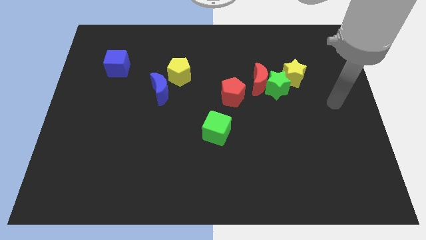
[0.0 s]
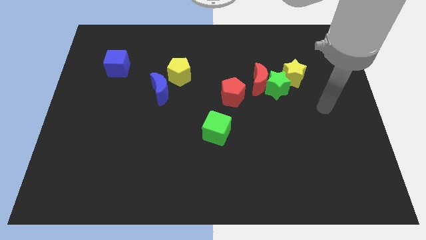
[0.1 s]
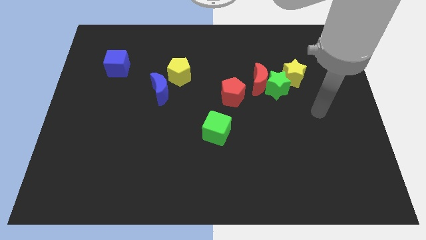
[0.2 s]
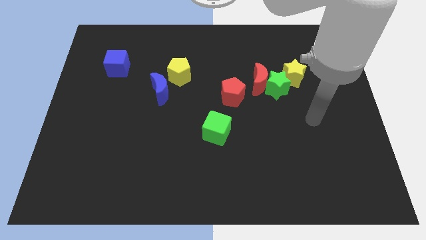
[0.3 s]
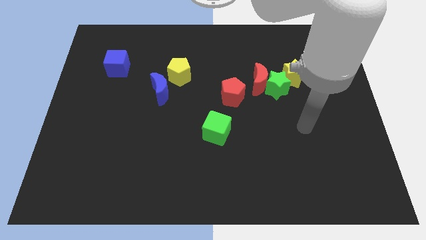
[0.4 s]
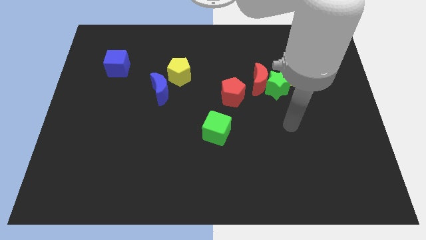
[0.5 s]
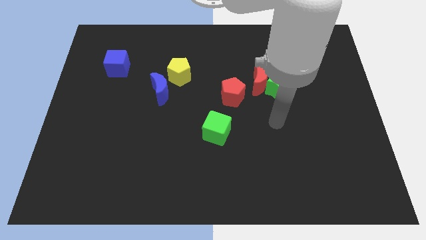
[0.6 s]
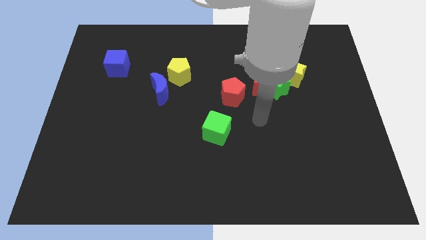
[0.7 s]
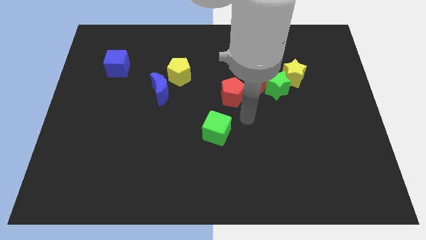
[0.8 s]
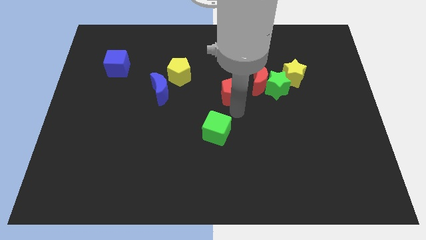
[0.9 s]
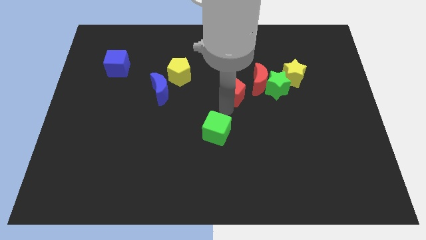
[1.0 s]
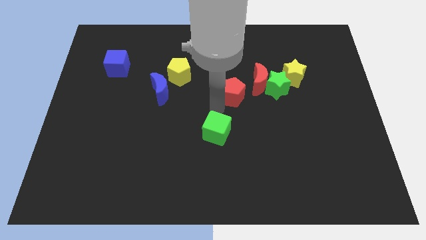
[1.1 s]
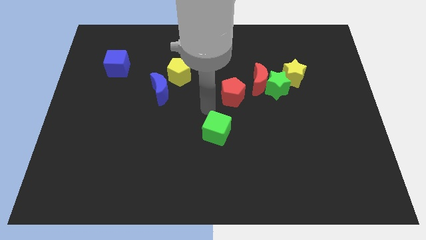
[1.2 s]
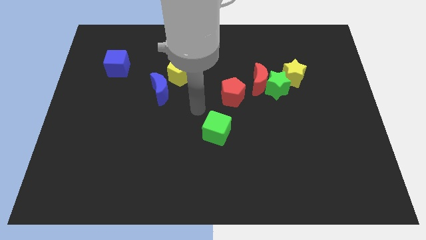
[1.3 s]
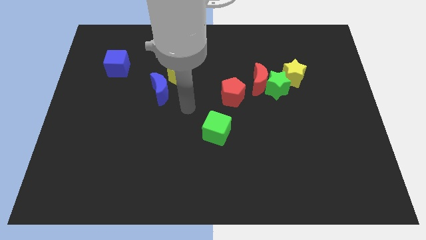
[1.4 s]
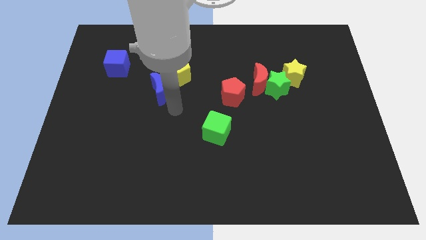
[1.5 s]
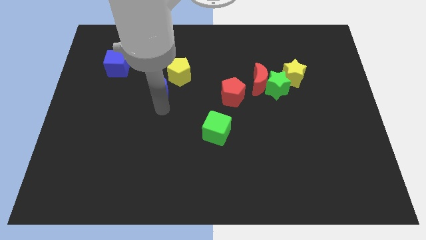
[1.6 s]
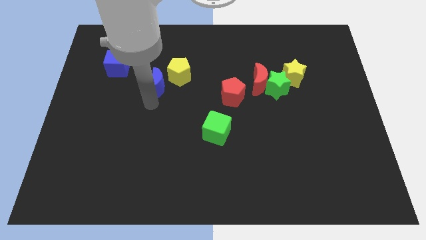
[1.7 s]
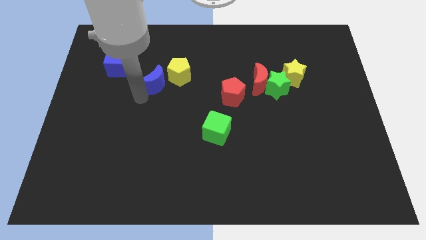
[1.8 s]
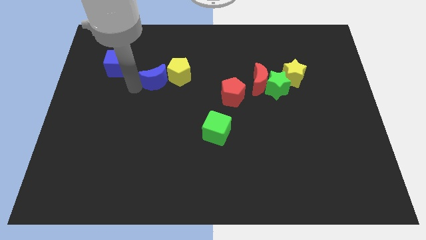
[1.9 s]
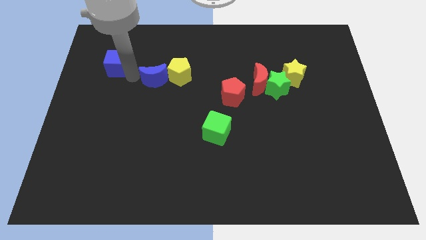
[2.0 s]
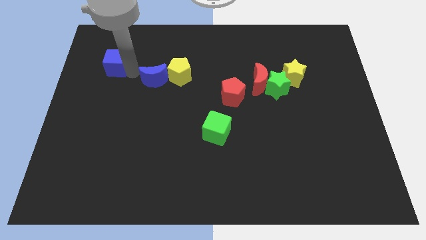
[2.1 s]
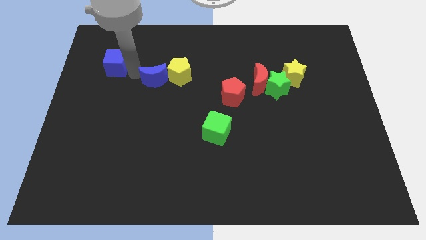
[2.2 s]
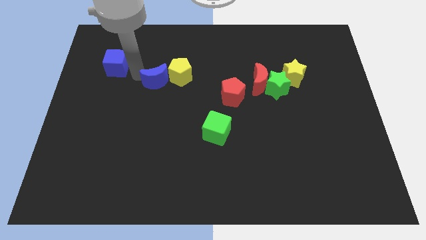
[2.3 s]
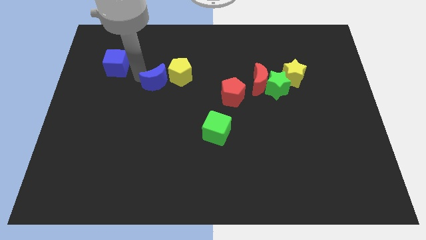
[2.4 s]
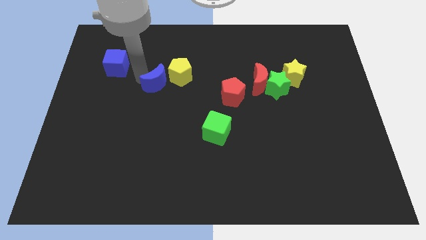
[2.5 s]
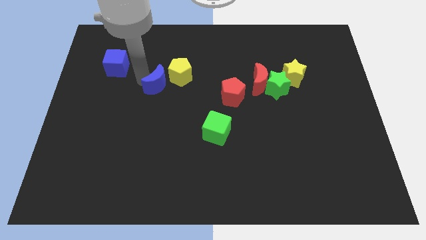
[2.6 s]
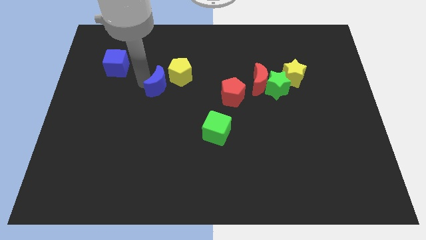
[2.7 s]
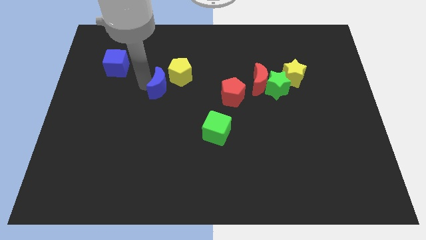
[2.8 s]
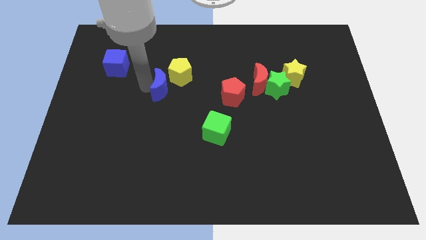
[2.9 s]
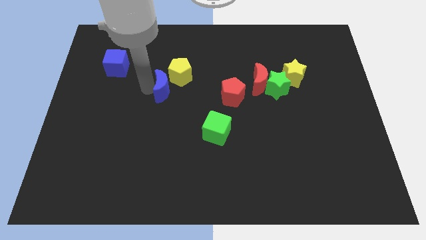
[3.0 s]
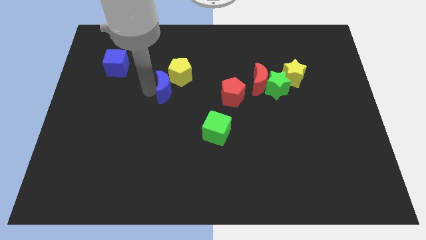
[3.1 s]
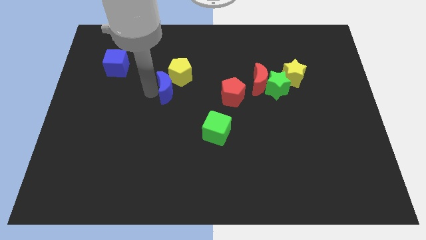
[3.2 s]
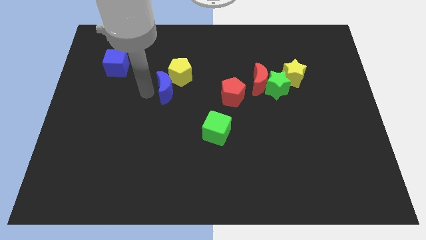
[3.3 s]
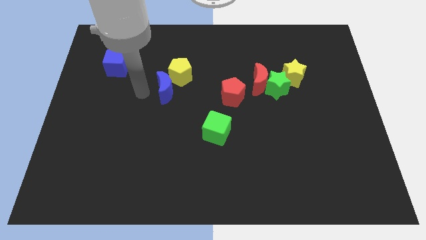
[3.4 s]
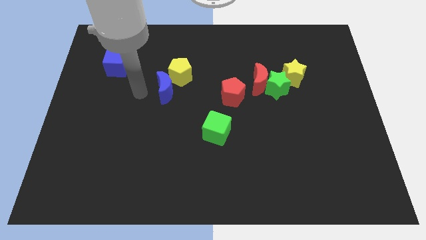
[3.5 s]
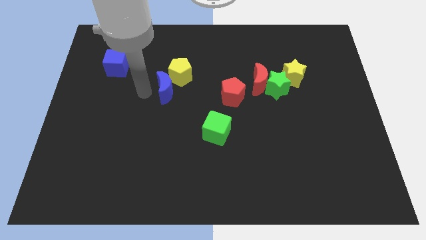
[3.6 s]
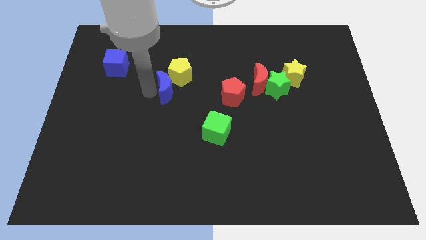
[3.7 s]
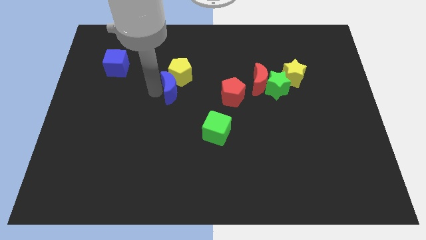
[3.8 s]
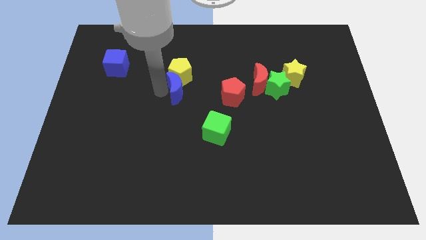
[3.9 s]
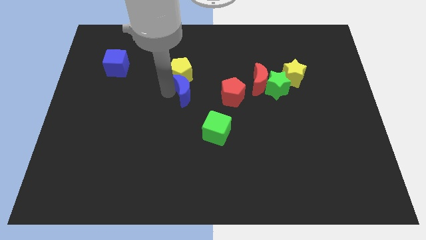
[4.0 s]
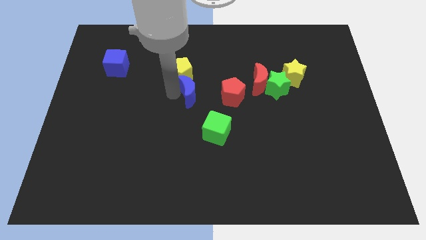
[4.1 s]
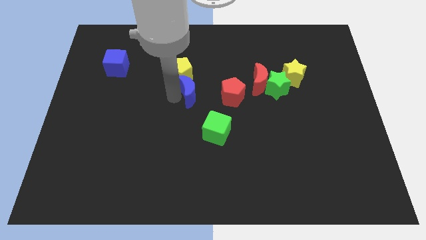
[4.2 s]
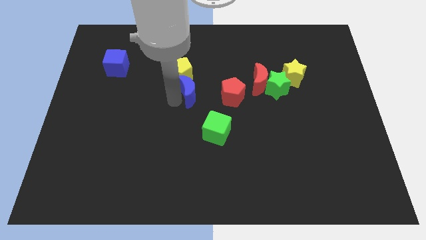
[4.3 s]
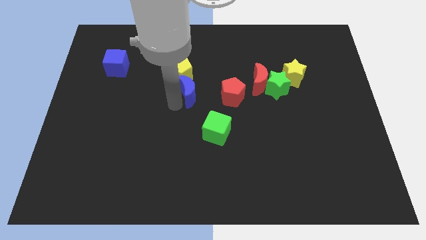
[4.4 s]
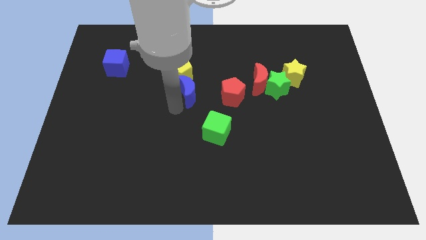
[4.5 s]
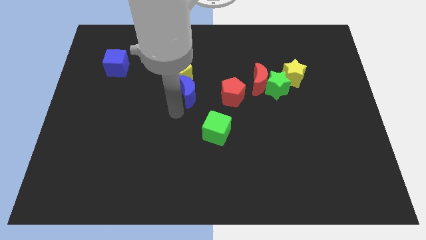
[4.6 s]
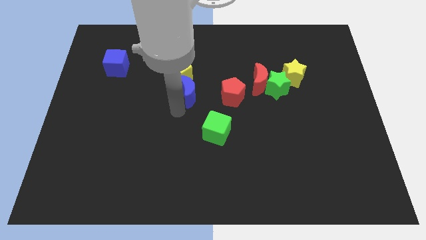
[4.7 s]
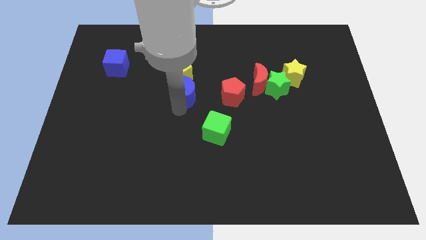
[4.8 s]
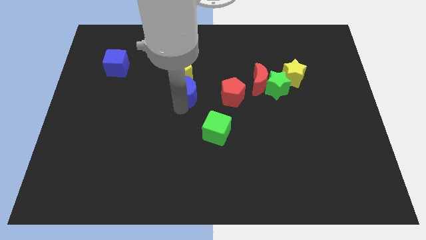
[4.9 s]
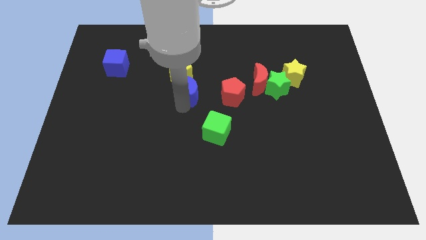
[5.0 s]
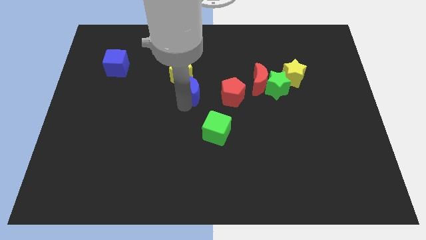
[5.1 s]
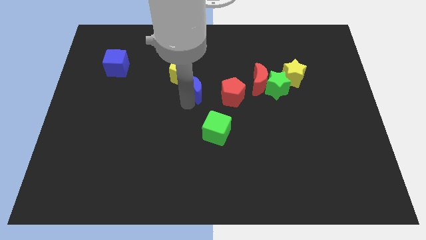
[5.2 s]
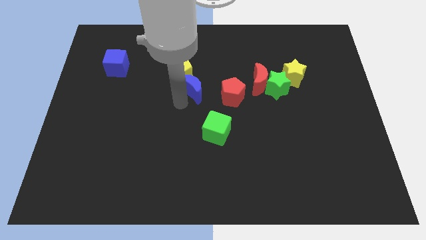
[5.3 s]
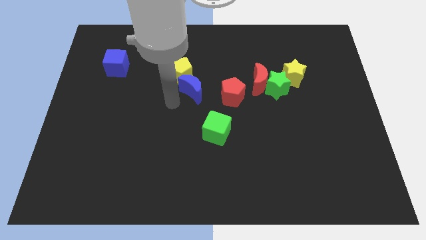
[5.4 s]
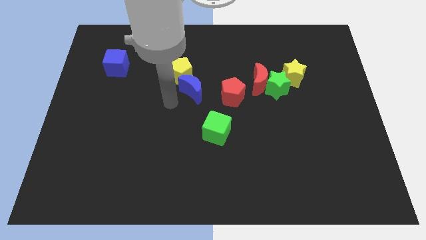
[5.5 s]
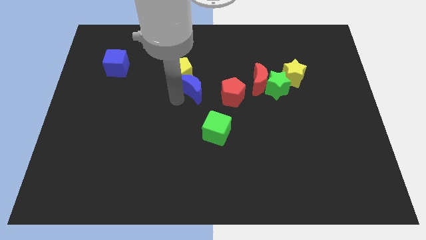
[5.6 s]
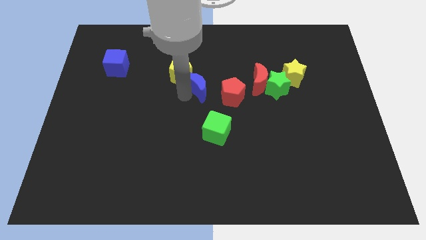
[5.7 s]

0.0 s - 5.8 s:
move the blue moon right of the yellow pentagon

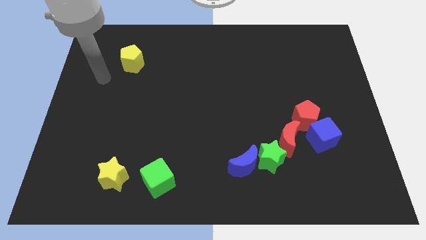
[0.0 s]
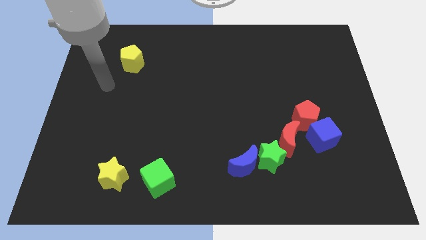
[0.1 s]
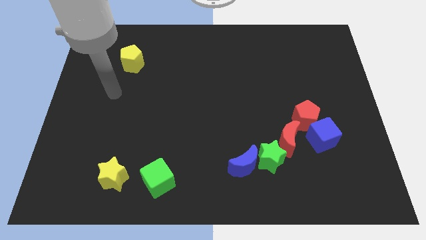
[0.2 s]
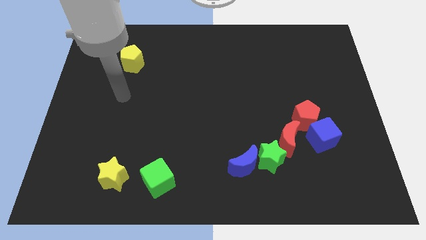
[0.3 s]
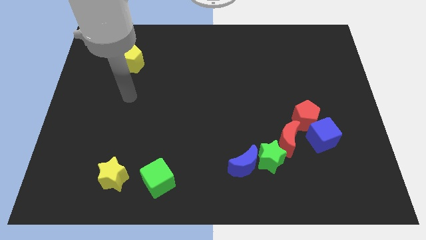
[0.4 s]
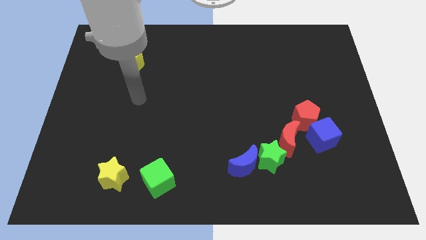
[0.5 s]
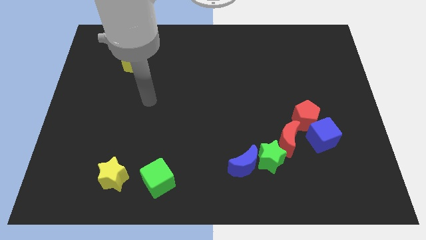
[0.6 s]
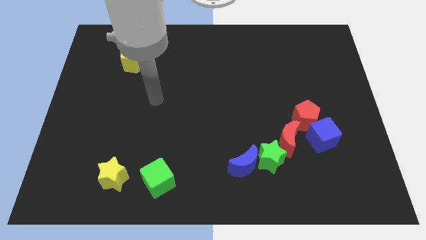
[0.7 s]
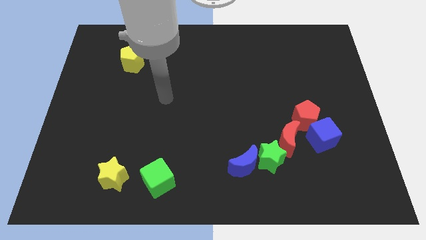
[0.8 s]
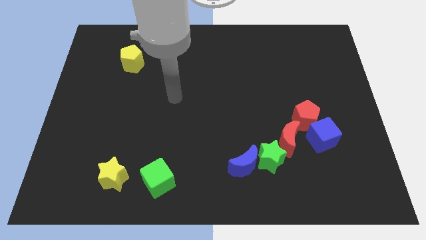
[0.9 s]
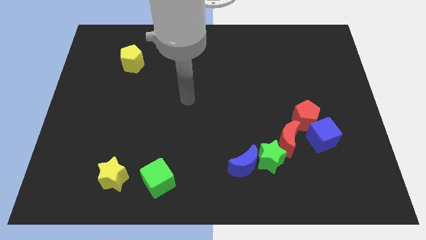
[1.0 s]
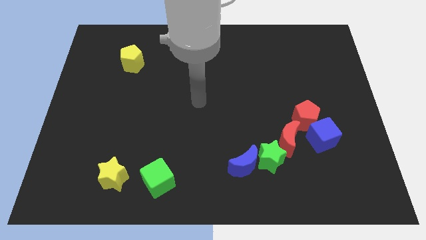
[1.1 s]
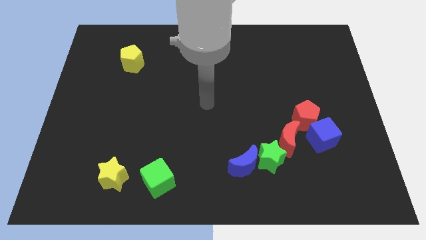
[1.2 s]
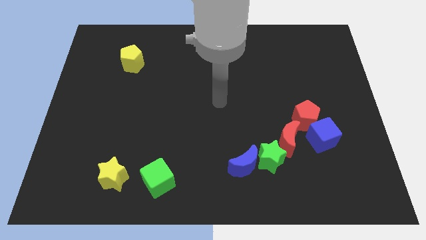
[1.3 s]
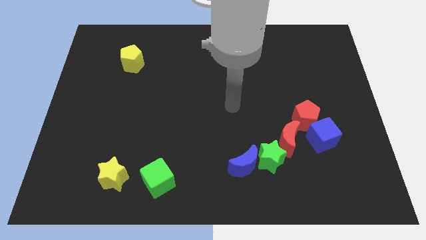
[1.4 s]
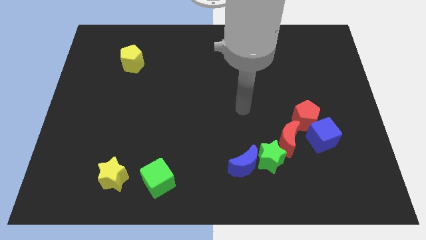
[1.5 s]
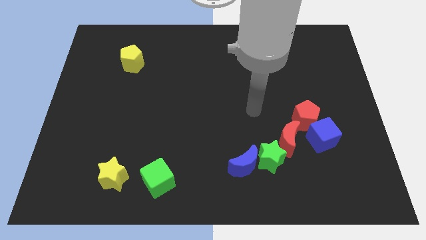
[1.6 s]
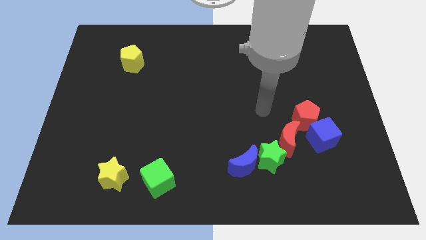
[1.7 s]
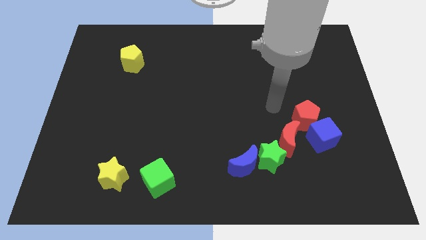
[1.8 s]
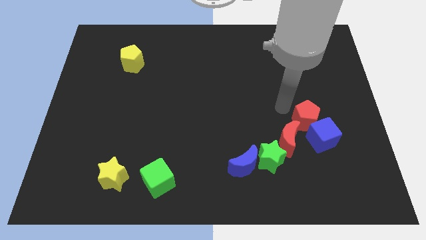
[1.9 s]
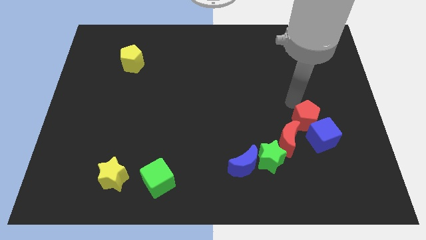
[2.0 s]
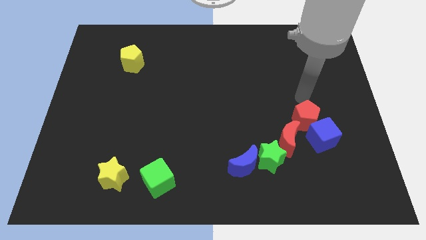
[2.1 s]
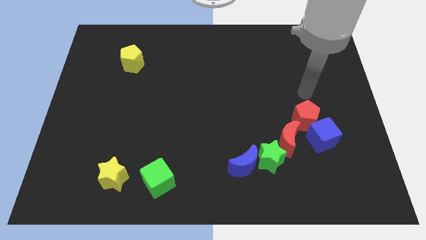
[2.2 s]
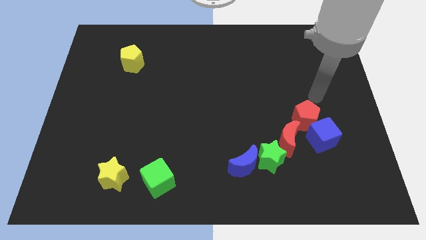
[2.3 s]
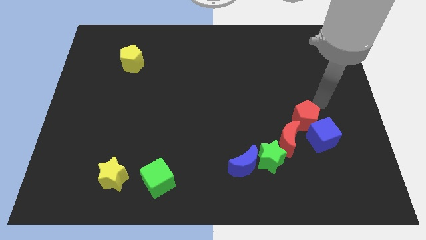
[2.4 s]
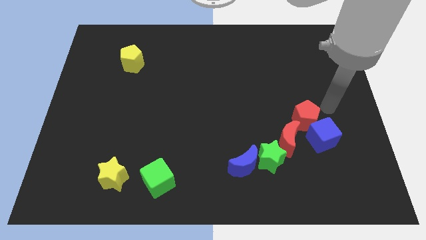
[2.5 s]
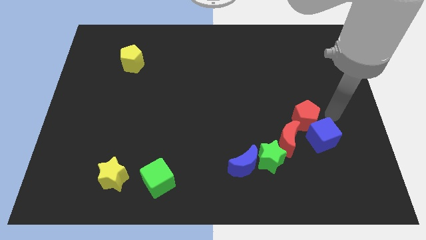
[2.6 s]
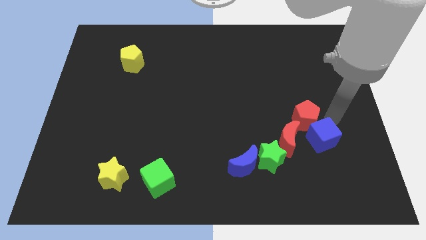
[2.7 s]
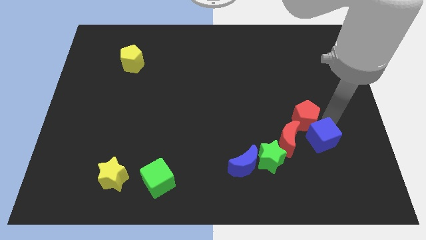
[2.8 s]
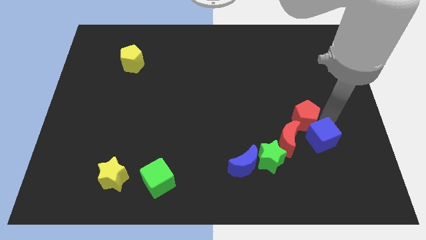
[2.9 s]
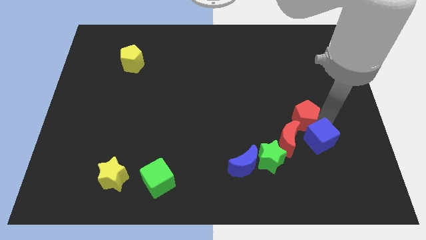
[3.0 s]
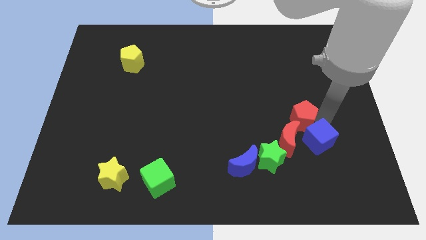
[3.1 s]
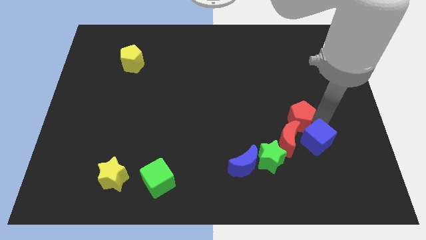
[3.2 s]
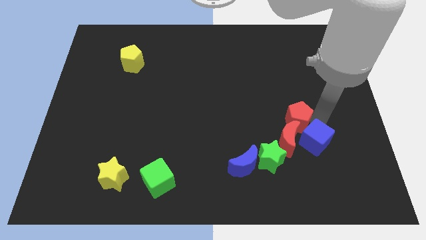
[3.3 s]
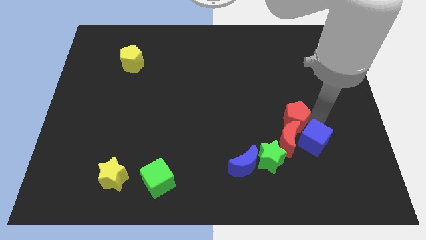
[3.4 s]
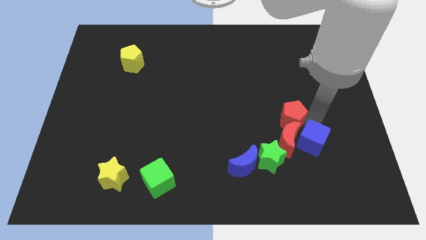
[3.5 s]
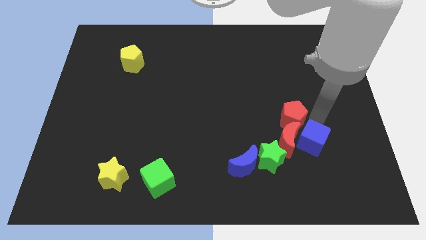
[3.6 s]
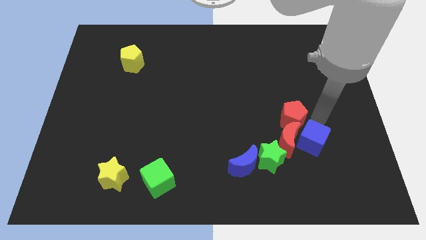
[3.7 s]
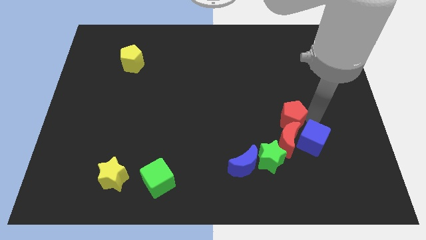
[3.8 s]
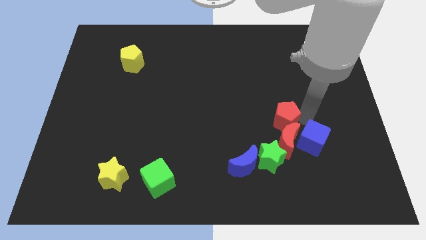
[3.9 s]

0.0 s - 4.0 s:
put the red pentagon above the green star
